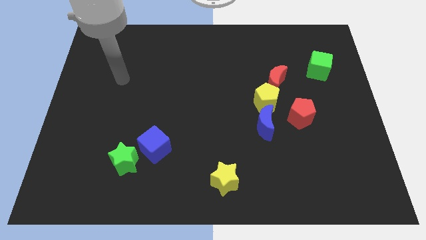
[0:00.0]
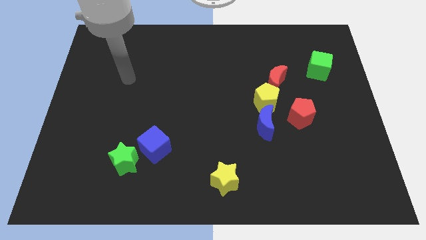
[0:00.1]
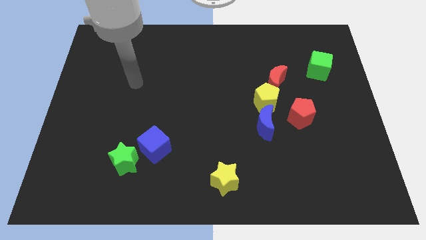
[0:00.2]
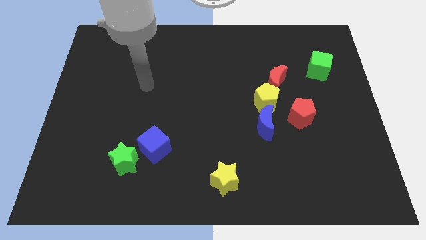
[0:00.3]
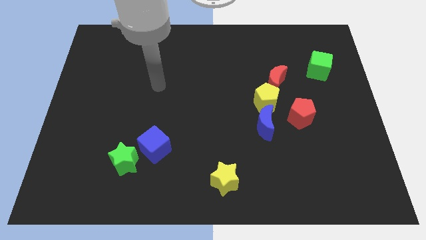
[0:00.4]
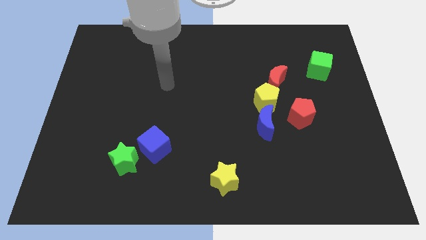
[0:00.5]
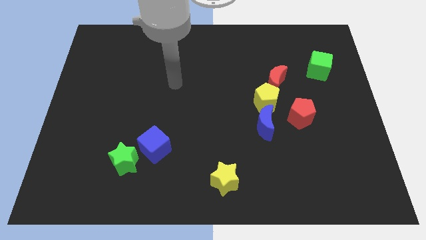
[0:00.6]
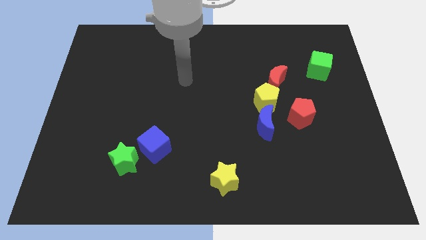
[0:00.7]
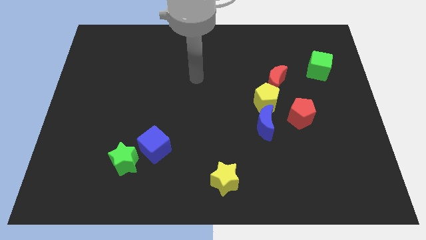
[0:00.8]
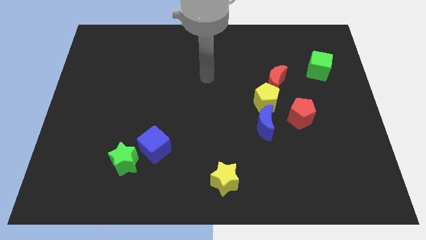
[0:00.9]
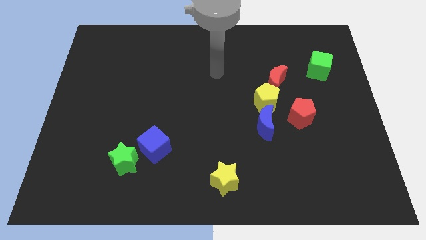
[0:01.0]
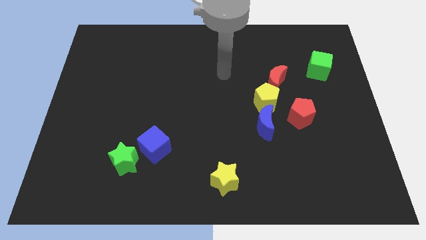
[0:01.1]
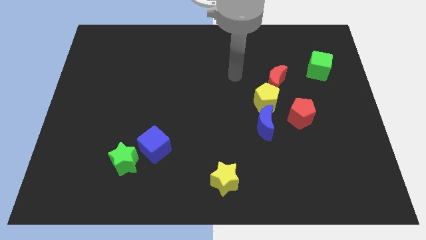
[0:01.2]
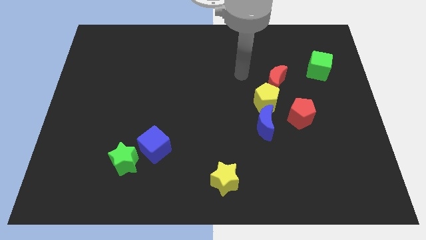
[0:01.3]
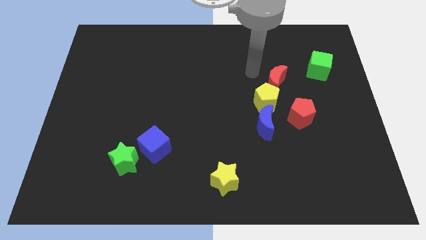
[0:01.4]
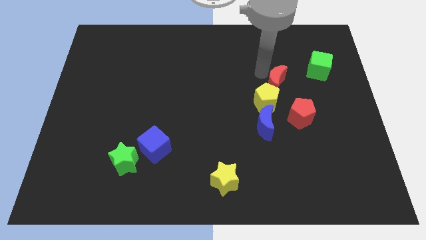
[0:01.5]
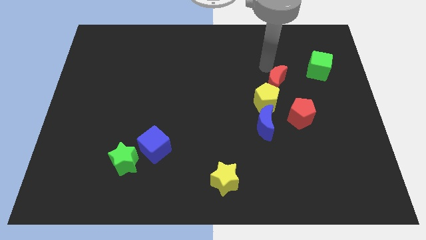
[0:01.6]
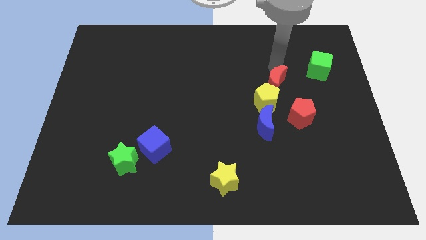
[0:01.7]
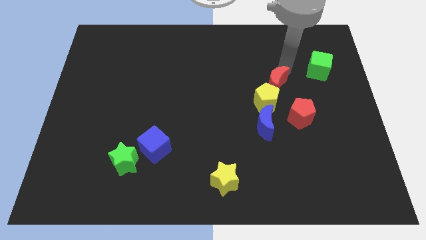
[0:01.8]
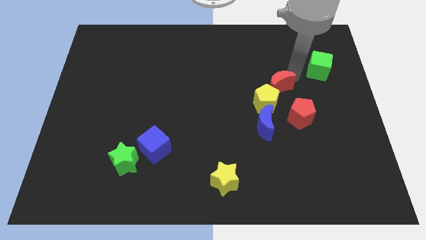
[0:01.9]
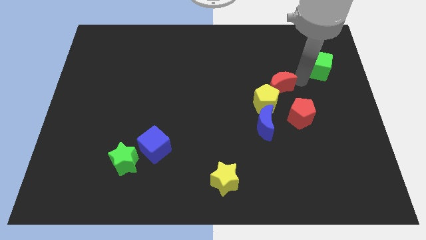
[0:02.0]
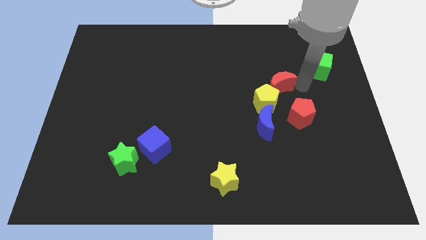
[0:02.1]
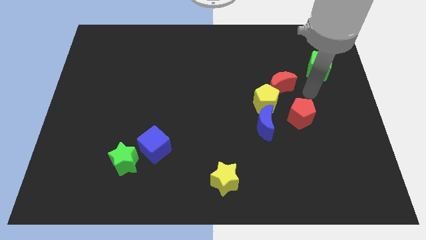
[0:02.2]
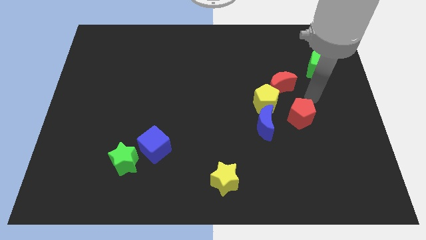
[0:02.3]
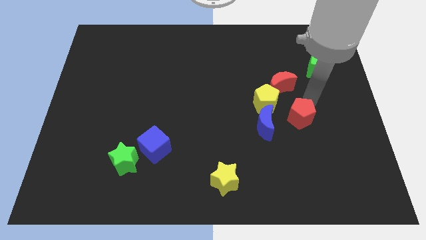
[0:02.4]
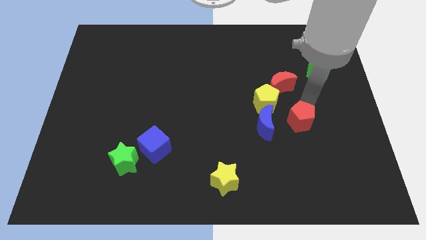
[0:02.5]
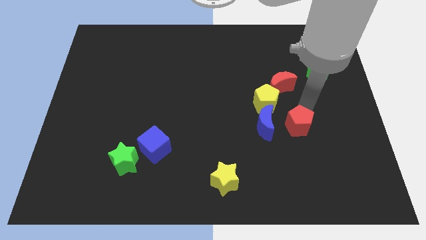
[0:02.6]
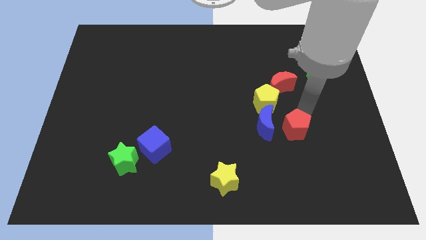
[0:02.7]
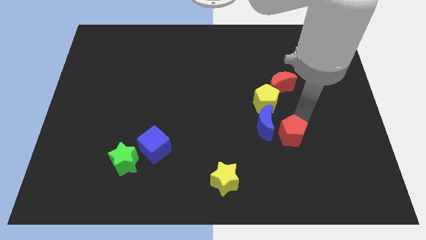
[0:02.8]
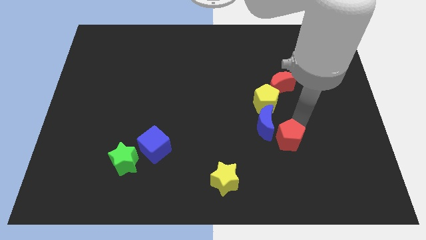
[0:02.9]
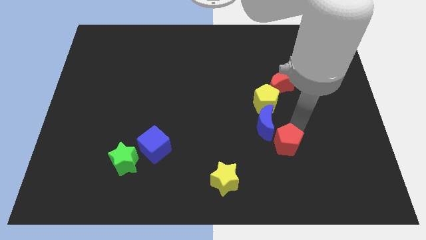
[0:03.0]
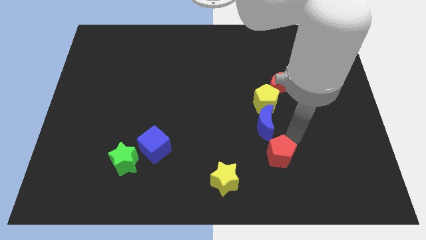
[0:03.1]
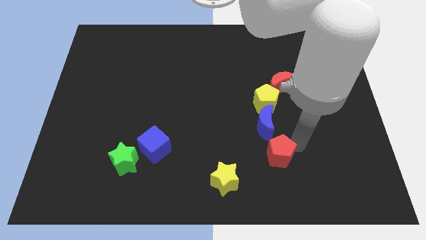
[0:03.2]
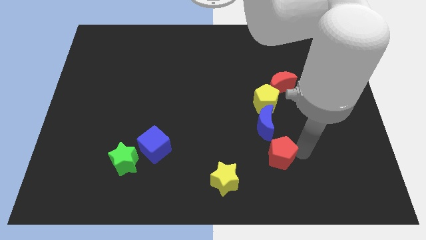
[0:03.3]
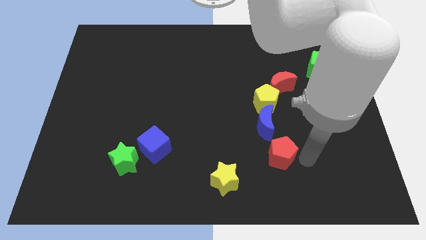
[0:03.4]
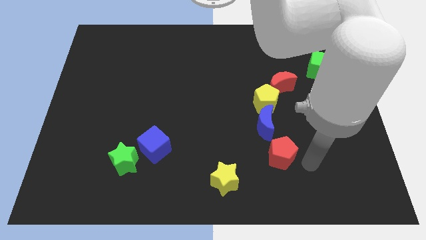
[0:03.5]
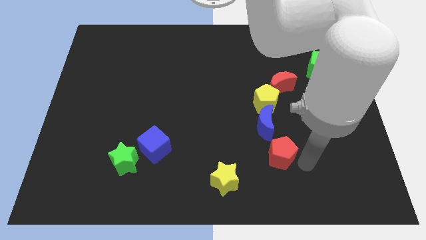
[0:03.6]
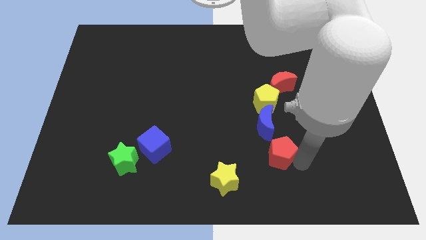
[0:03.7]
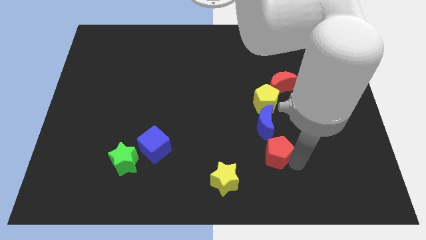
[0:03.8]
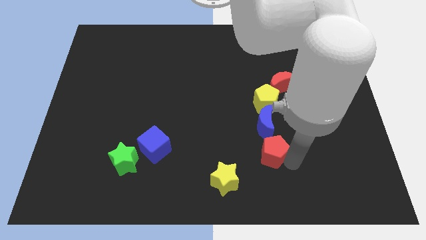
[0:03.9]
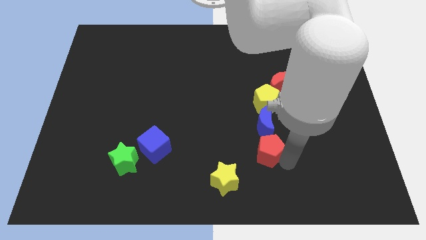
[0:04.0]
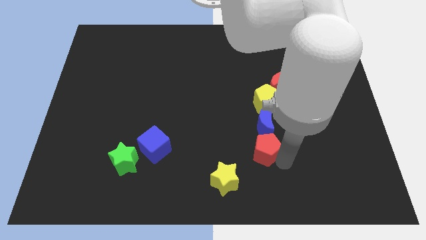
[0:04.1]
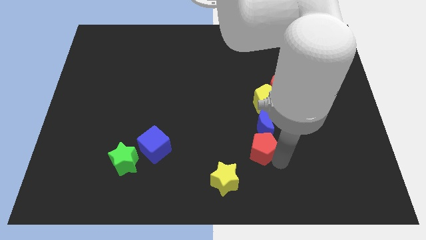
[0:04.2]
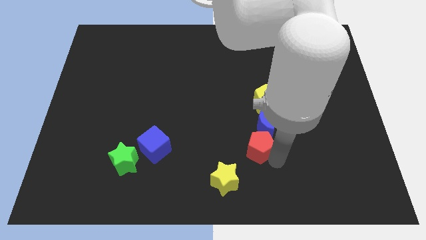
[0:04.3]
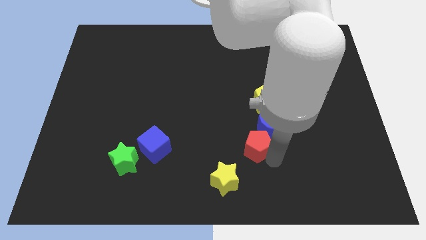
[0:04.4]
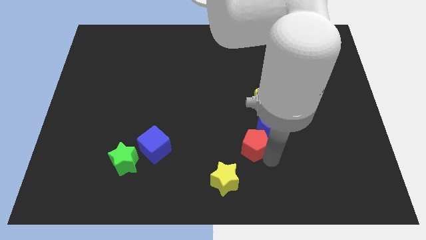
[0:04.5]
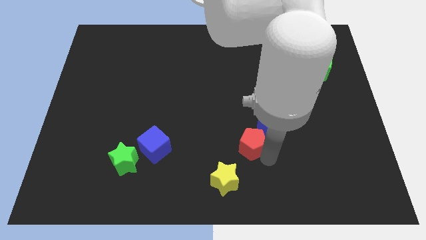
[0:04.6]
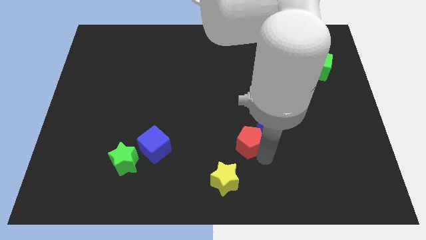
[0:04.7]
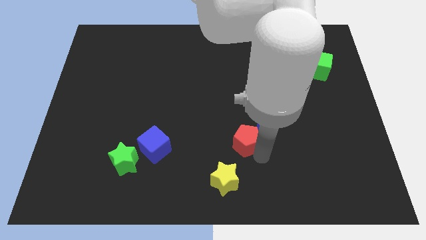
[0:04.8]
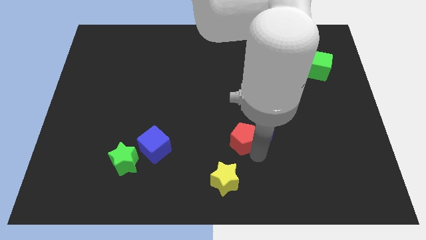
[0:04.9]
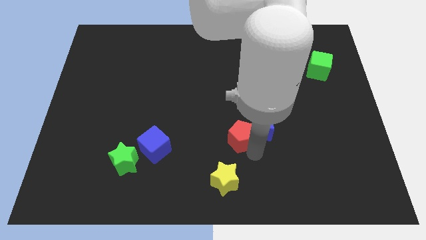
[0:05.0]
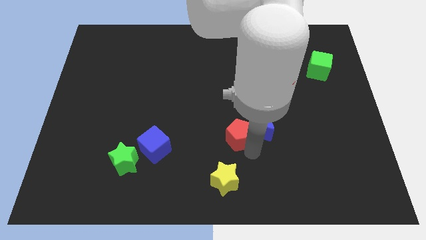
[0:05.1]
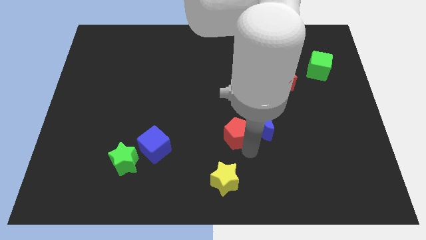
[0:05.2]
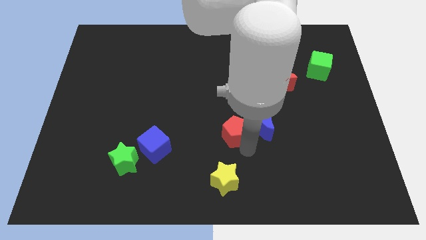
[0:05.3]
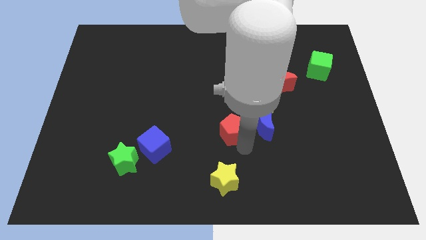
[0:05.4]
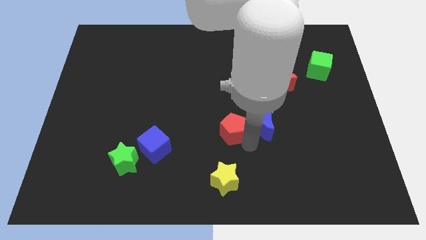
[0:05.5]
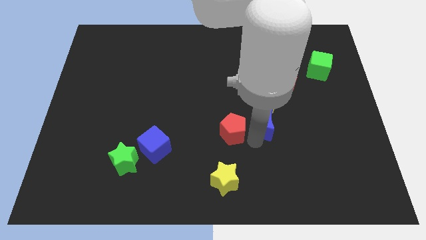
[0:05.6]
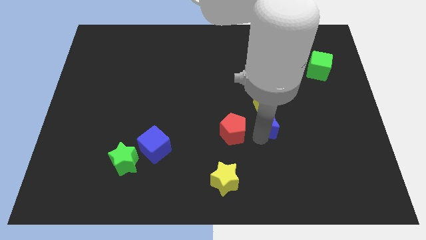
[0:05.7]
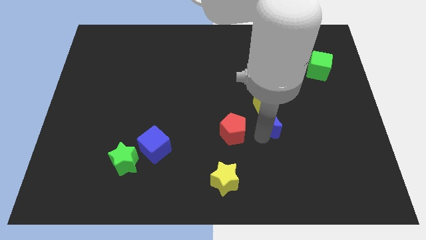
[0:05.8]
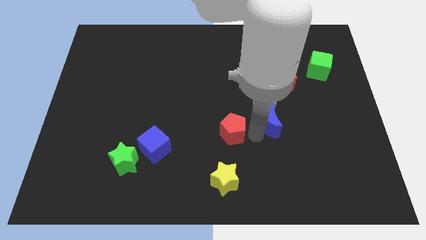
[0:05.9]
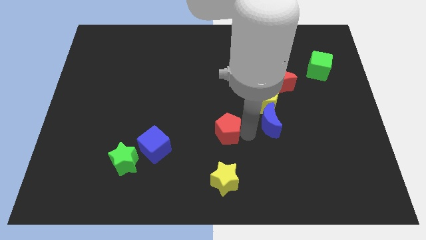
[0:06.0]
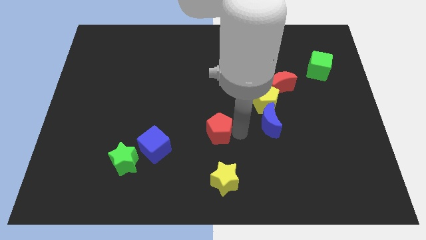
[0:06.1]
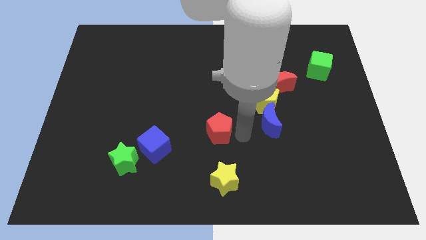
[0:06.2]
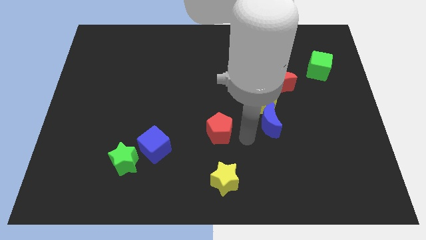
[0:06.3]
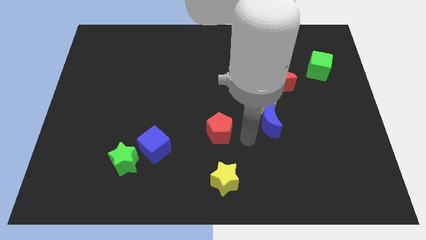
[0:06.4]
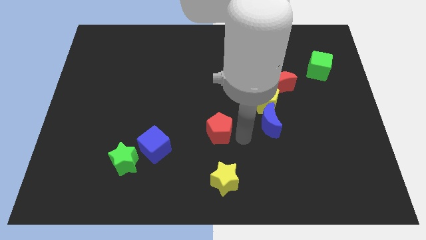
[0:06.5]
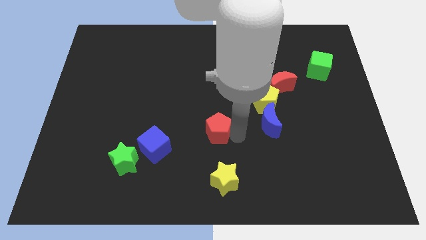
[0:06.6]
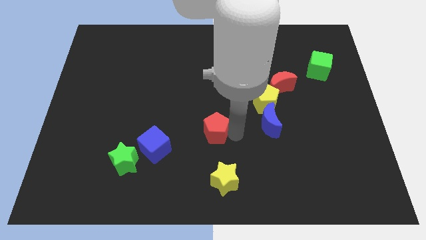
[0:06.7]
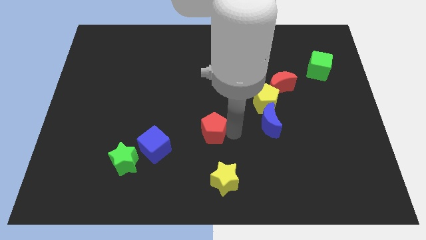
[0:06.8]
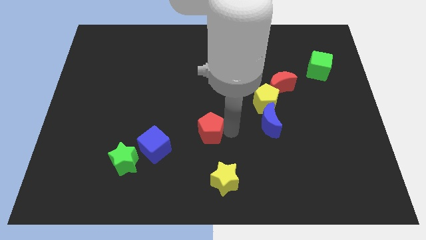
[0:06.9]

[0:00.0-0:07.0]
slide the red pentagon to the left

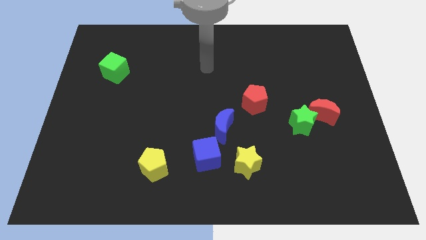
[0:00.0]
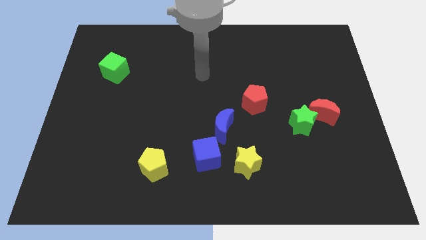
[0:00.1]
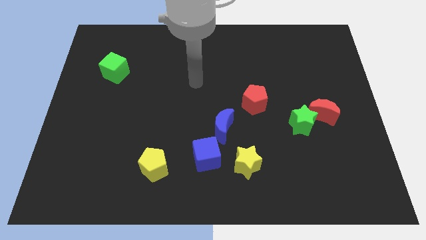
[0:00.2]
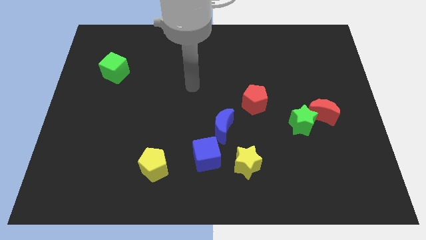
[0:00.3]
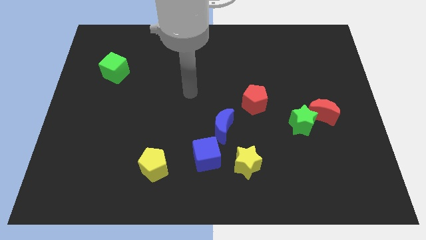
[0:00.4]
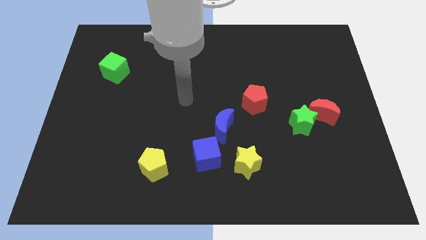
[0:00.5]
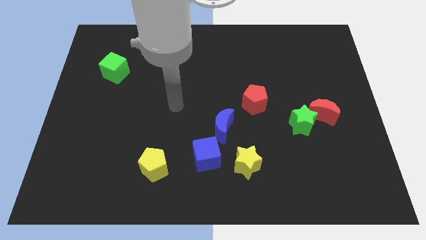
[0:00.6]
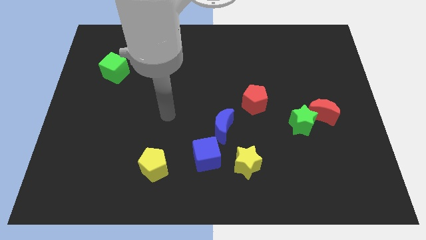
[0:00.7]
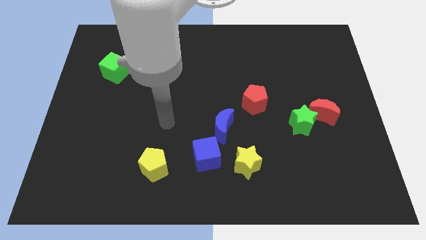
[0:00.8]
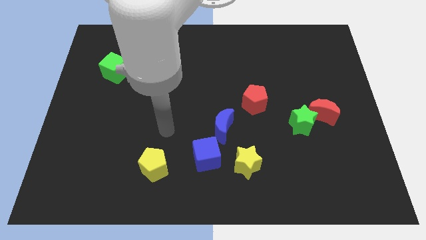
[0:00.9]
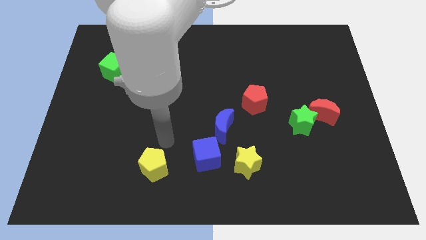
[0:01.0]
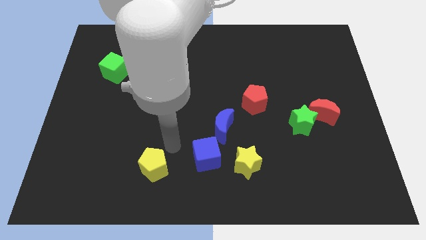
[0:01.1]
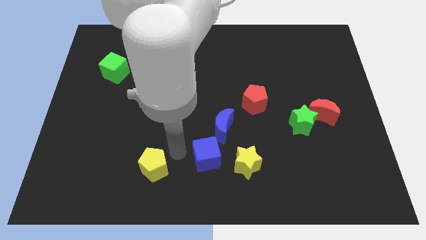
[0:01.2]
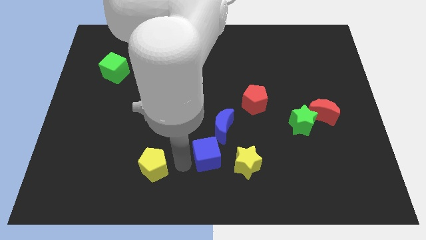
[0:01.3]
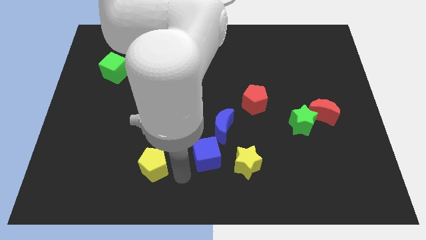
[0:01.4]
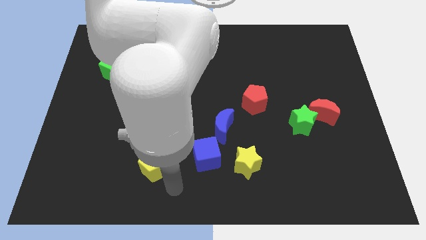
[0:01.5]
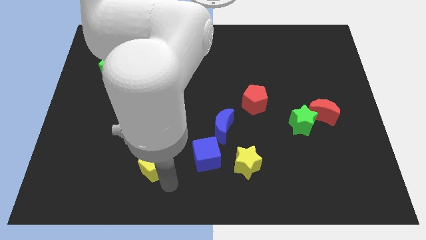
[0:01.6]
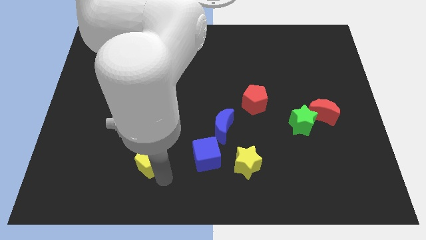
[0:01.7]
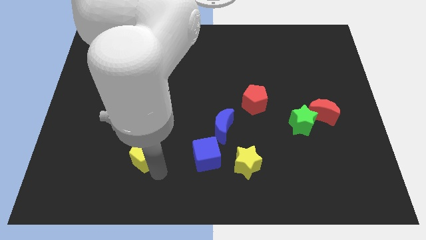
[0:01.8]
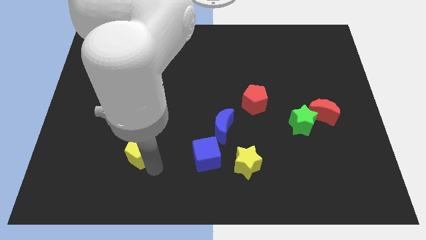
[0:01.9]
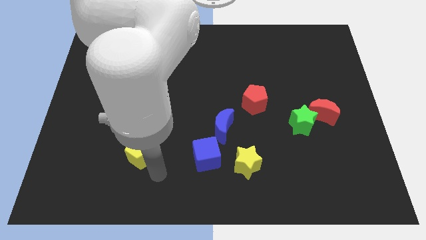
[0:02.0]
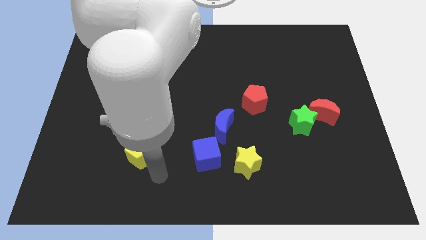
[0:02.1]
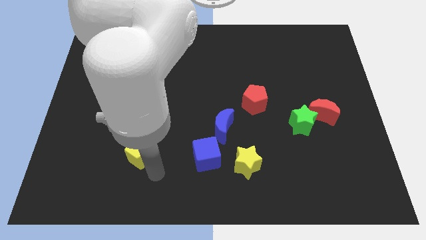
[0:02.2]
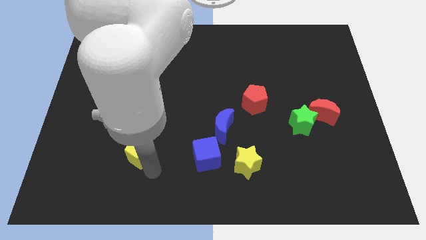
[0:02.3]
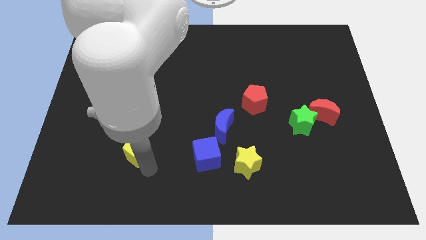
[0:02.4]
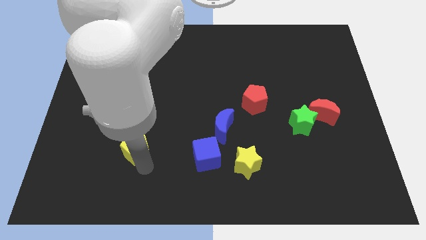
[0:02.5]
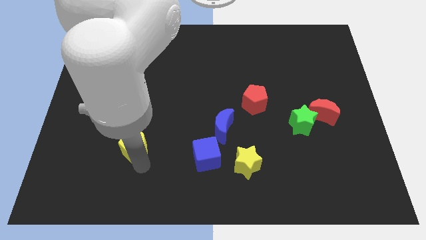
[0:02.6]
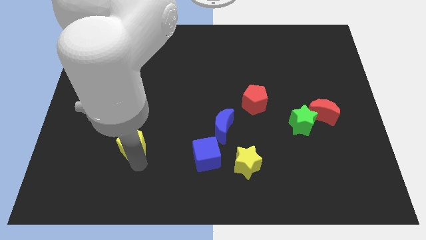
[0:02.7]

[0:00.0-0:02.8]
slide the yellow pentagon diagonally upwards and left slightly
